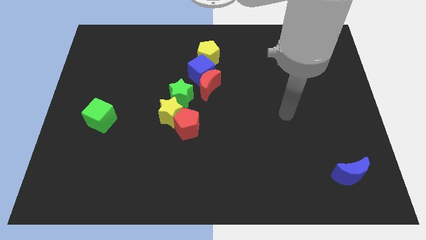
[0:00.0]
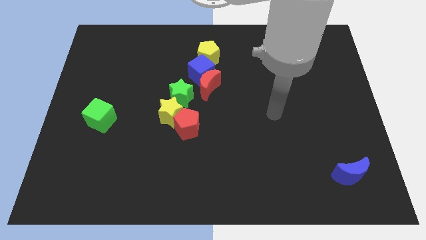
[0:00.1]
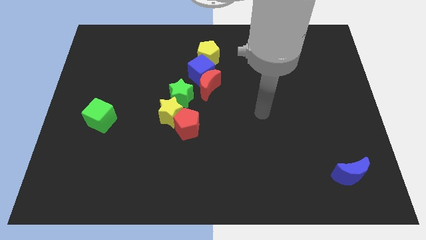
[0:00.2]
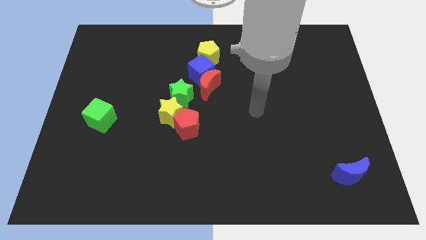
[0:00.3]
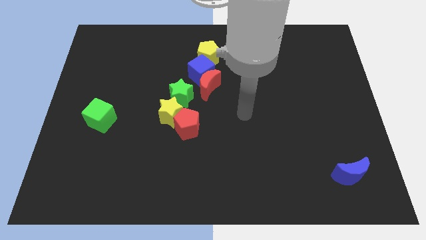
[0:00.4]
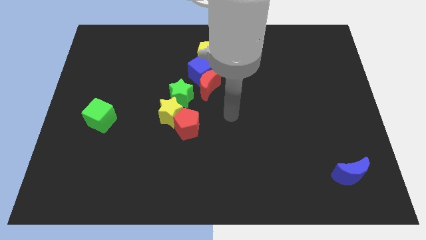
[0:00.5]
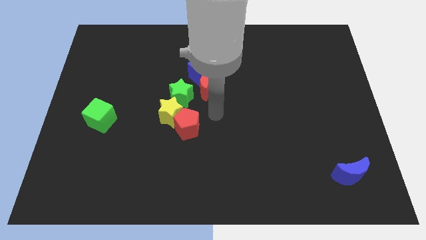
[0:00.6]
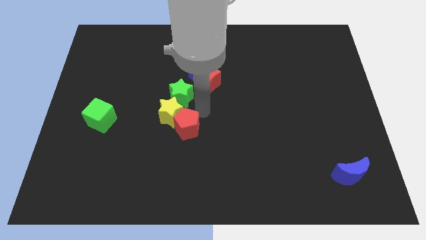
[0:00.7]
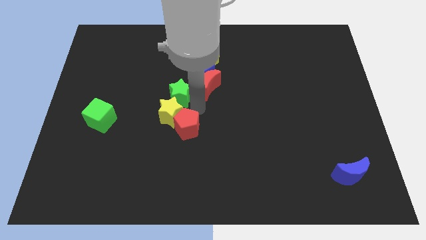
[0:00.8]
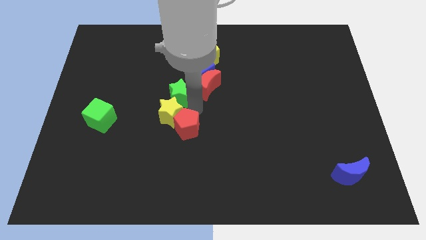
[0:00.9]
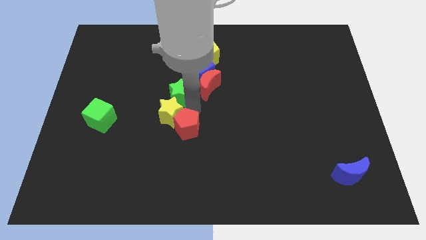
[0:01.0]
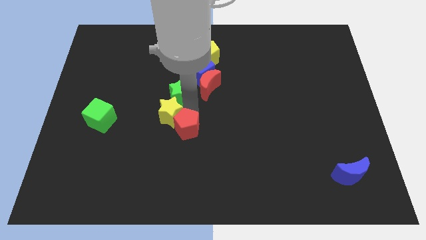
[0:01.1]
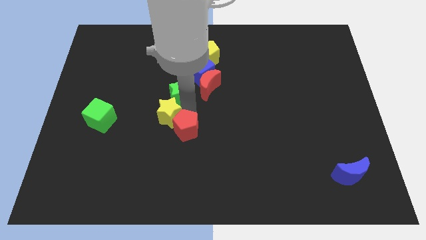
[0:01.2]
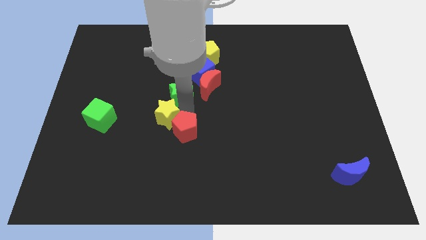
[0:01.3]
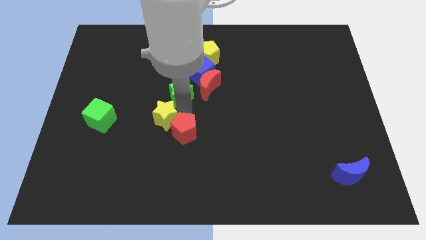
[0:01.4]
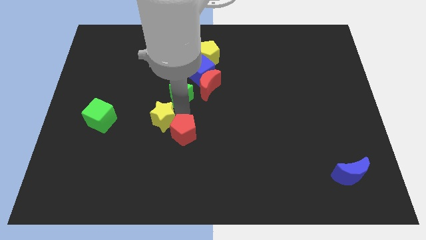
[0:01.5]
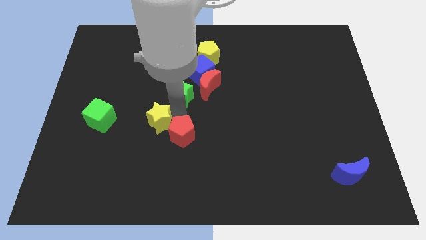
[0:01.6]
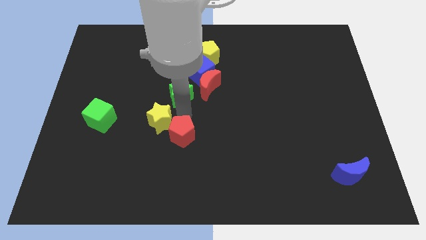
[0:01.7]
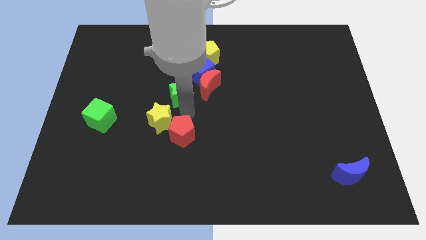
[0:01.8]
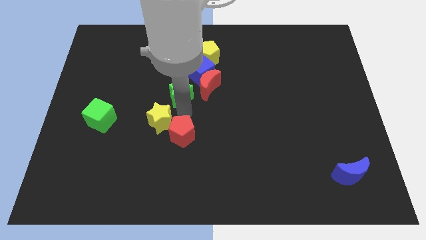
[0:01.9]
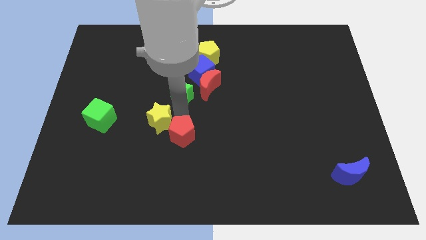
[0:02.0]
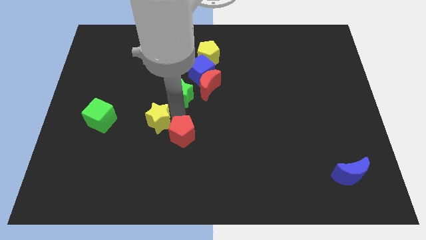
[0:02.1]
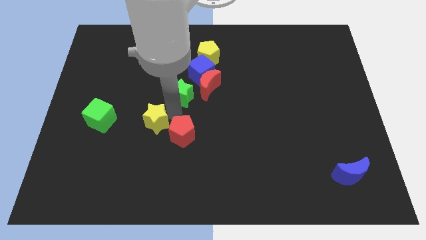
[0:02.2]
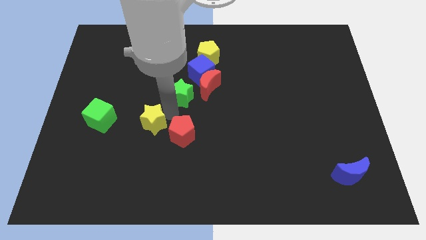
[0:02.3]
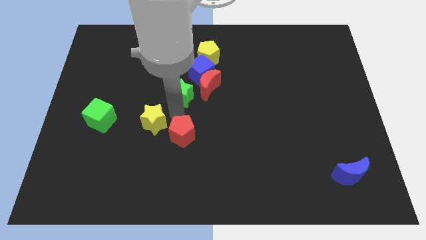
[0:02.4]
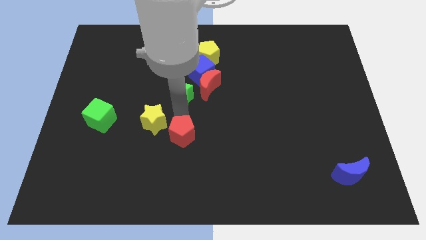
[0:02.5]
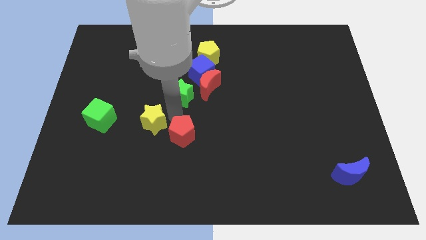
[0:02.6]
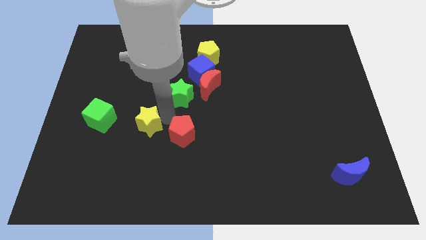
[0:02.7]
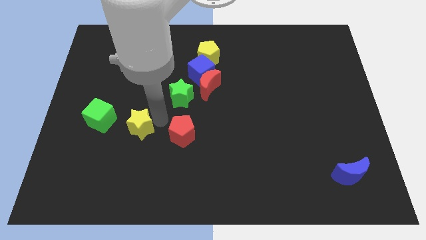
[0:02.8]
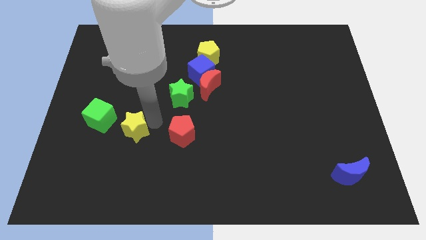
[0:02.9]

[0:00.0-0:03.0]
pull the yellow star apart from the red pentagon and green star

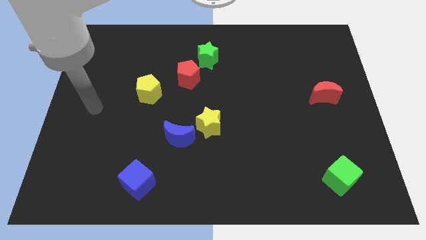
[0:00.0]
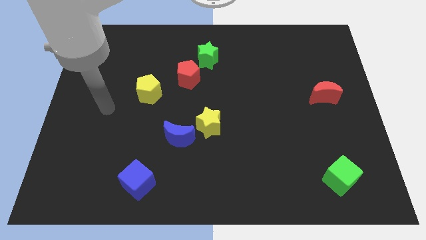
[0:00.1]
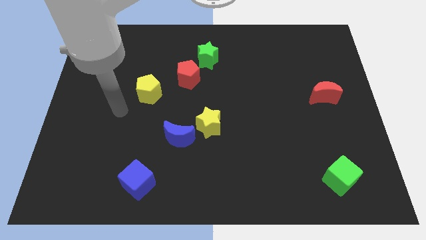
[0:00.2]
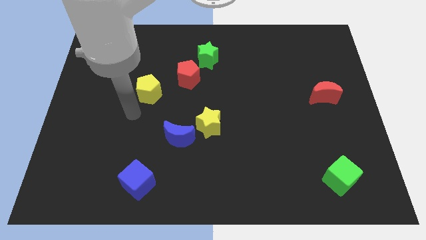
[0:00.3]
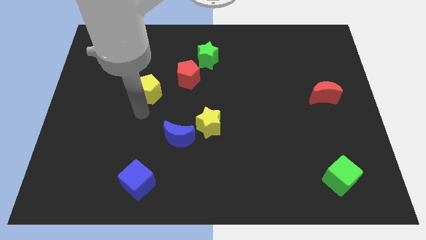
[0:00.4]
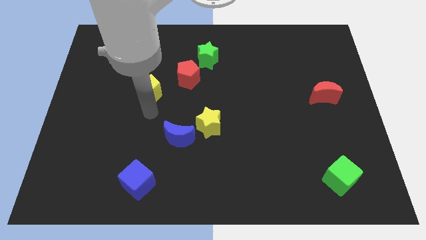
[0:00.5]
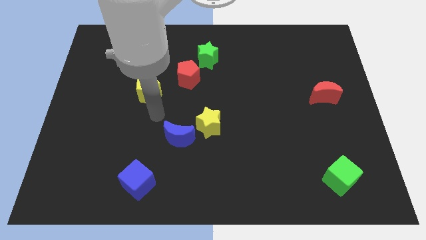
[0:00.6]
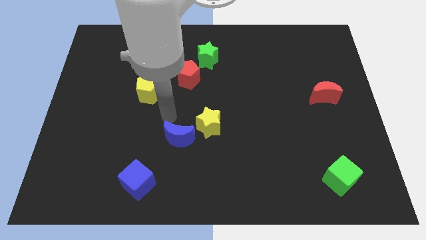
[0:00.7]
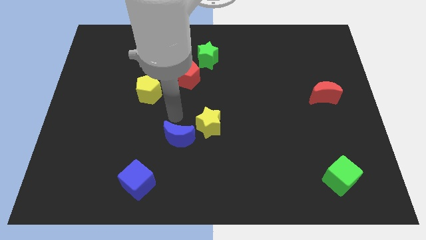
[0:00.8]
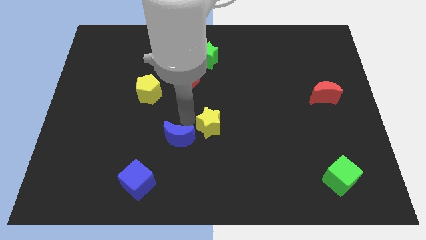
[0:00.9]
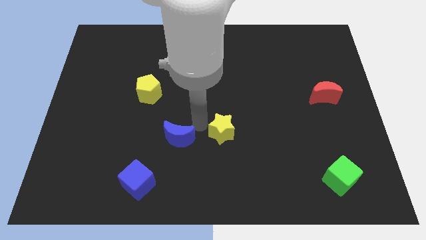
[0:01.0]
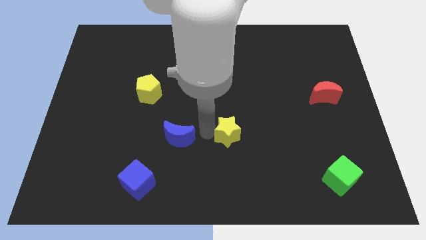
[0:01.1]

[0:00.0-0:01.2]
separate the blue moon from the yellow star

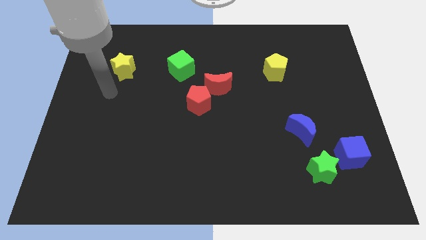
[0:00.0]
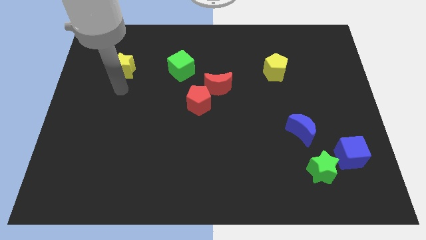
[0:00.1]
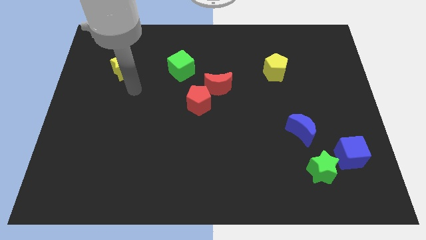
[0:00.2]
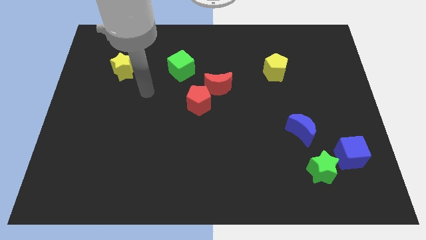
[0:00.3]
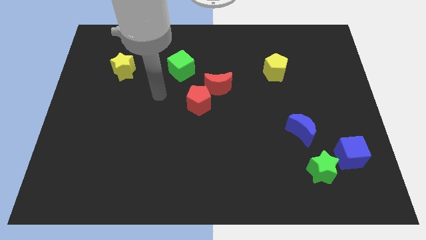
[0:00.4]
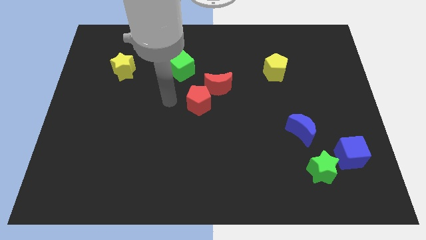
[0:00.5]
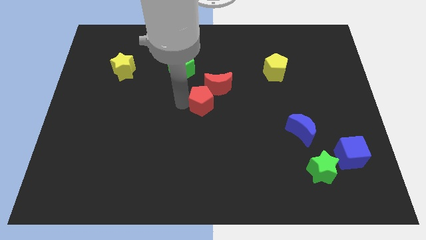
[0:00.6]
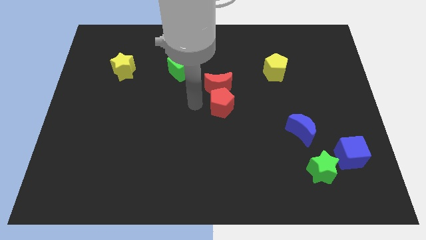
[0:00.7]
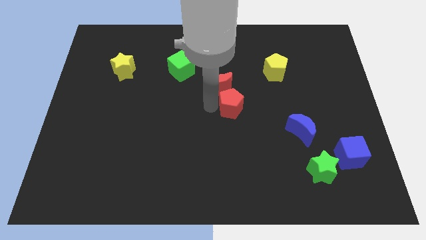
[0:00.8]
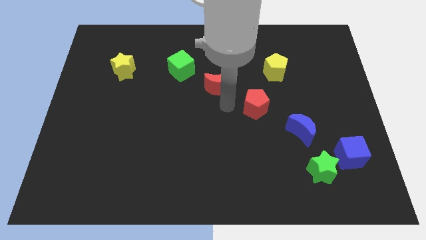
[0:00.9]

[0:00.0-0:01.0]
move the red moon away from the red pentagon

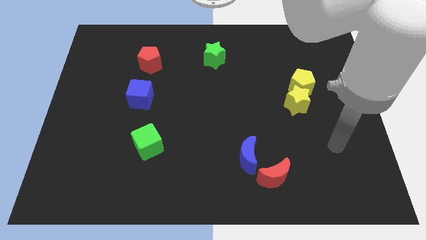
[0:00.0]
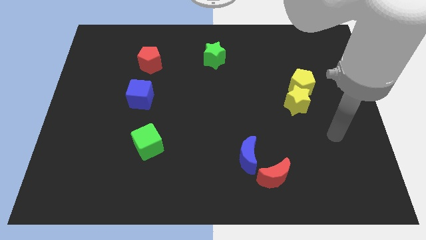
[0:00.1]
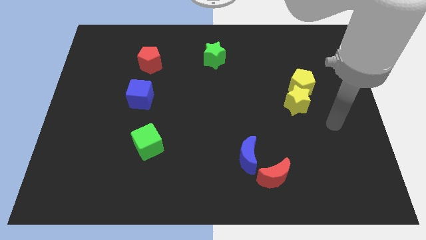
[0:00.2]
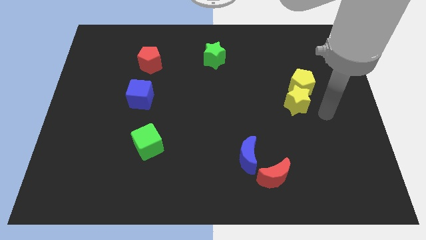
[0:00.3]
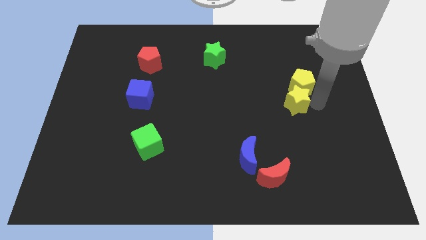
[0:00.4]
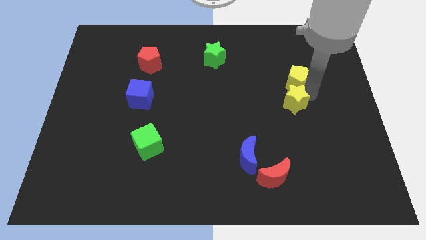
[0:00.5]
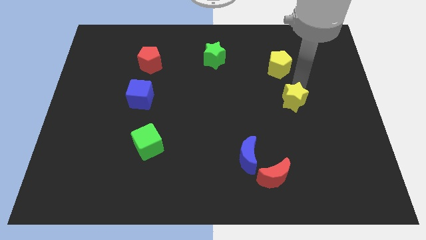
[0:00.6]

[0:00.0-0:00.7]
move the yellow star away from the yellow pentagon

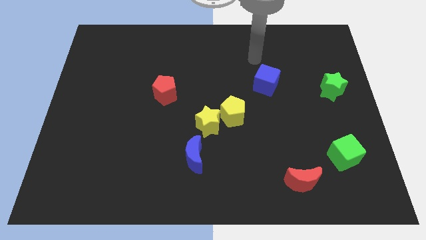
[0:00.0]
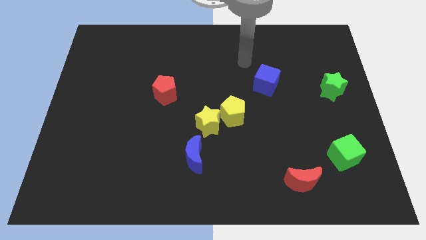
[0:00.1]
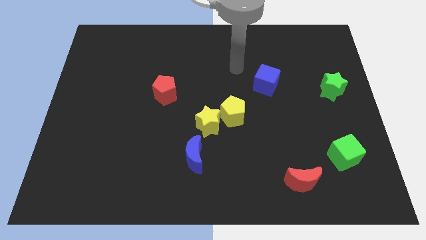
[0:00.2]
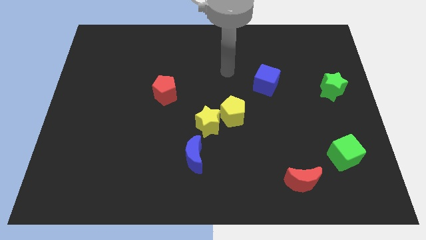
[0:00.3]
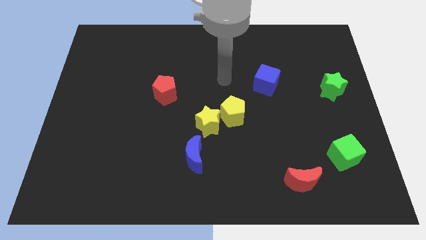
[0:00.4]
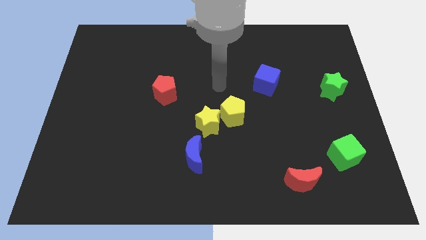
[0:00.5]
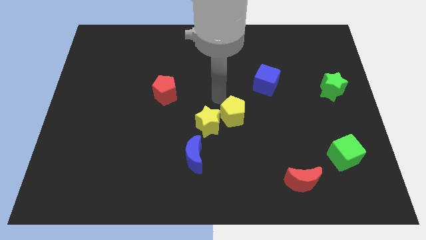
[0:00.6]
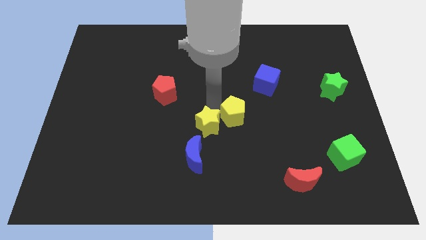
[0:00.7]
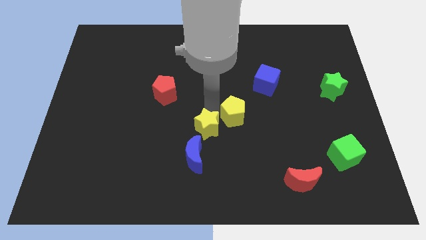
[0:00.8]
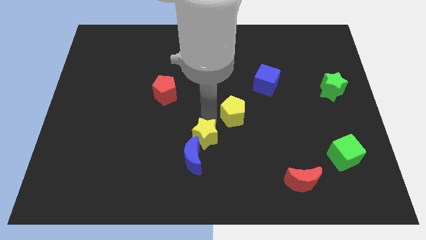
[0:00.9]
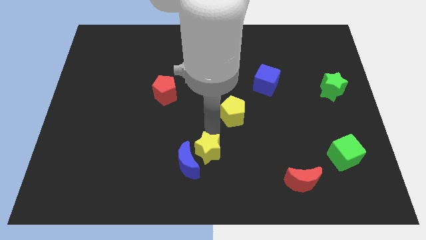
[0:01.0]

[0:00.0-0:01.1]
move the yellow pentagon away from the yellow star

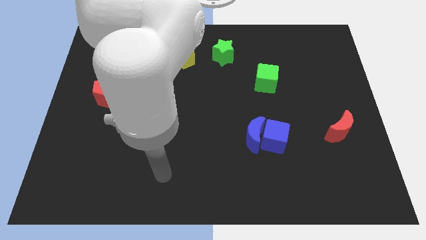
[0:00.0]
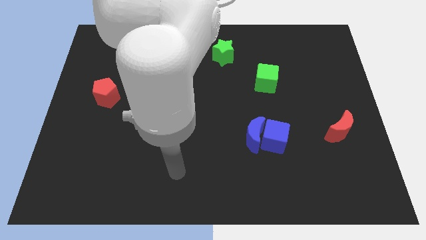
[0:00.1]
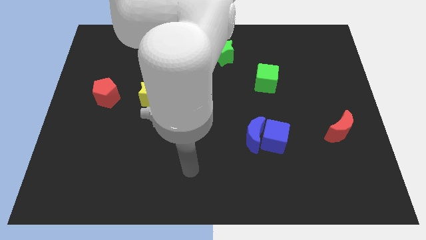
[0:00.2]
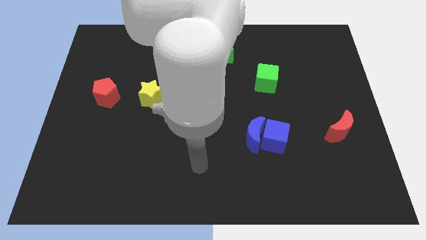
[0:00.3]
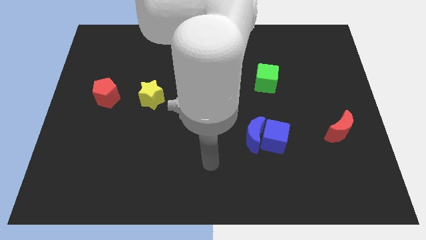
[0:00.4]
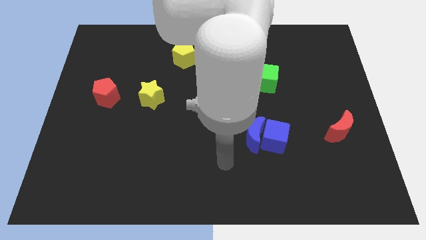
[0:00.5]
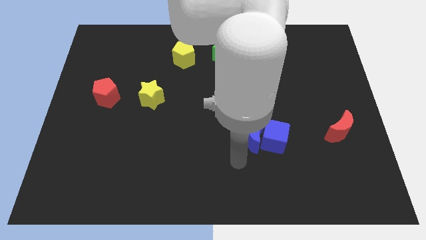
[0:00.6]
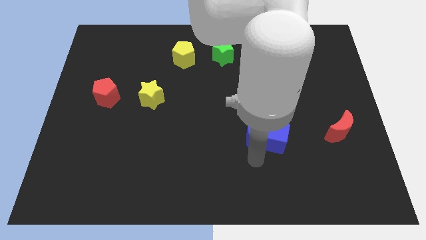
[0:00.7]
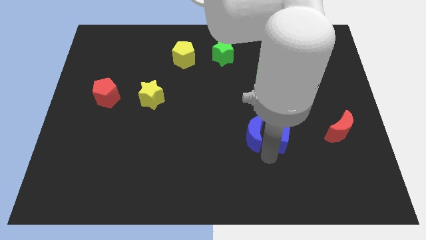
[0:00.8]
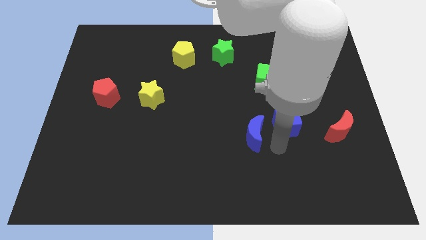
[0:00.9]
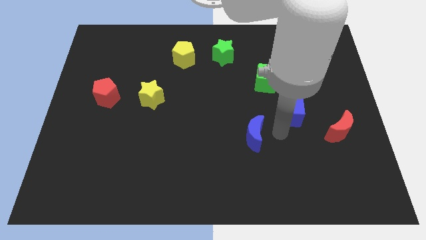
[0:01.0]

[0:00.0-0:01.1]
move the blue moon away from the blue cube

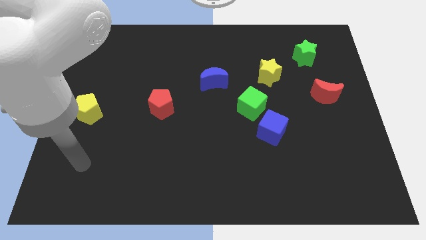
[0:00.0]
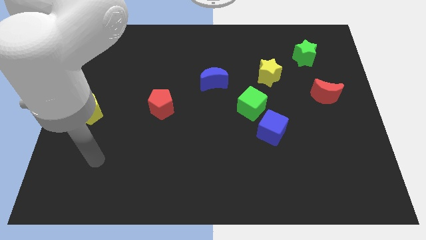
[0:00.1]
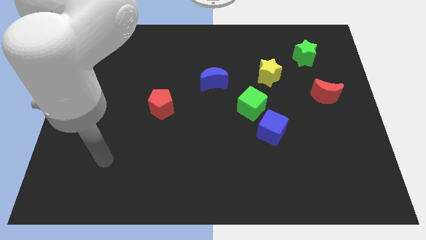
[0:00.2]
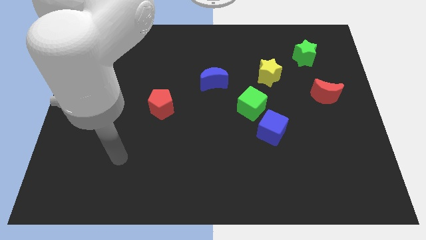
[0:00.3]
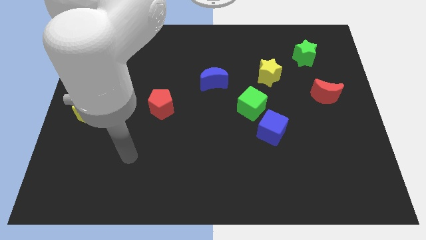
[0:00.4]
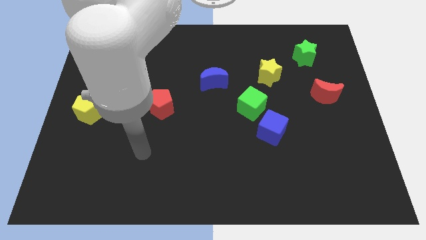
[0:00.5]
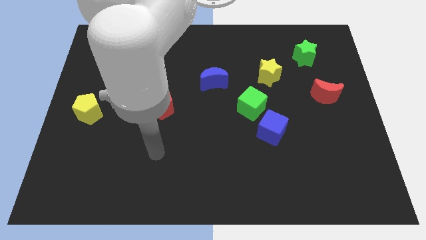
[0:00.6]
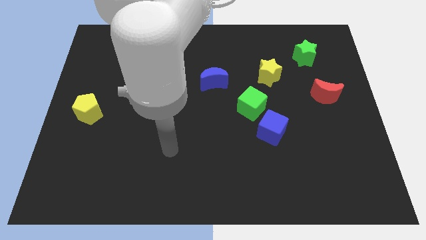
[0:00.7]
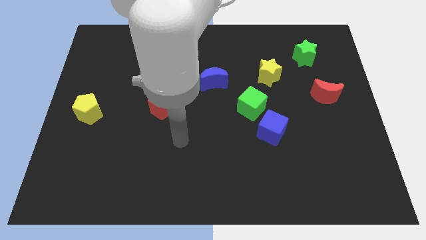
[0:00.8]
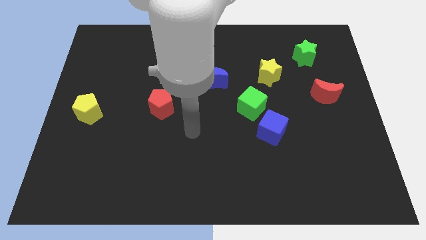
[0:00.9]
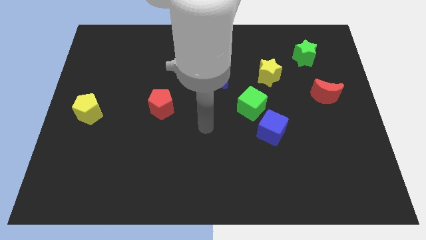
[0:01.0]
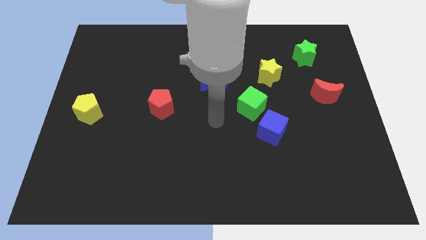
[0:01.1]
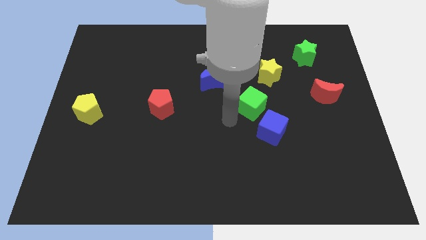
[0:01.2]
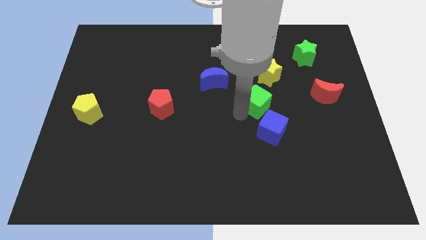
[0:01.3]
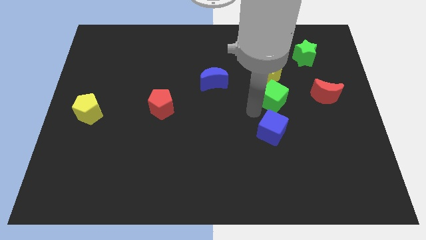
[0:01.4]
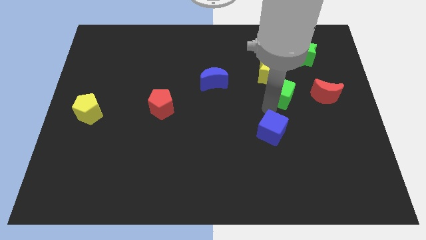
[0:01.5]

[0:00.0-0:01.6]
pull the blue cube apart from the green cube
